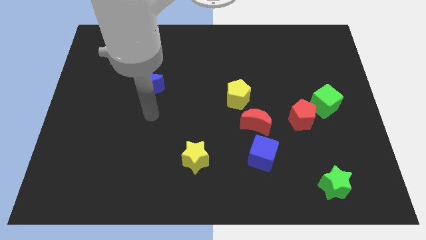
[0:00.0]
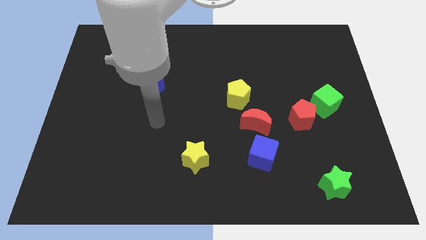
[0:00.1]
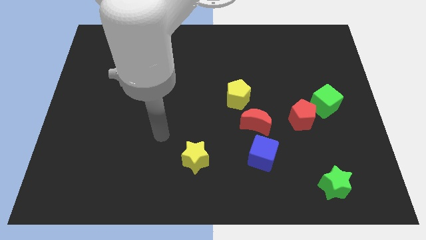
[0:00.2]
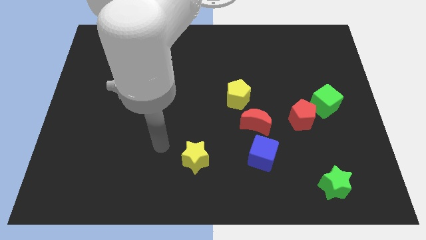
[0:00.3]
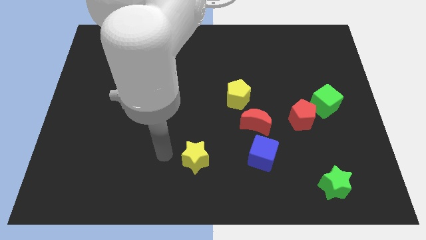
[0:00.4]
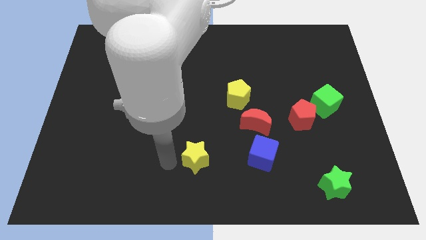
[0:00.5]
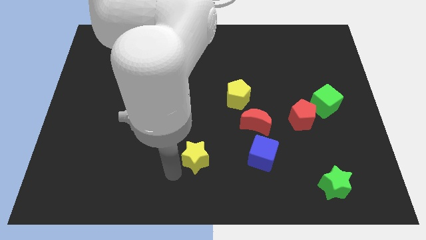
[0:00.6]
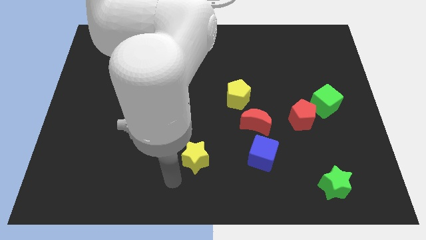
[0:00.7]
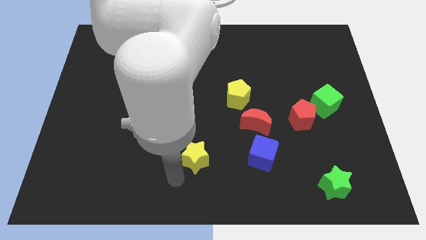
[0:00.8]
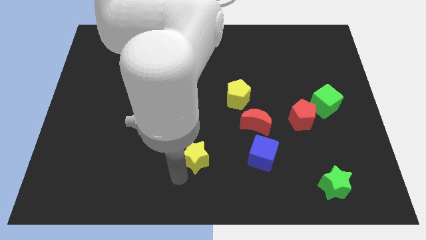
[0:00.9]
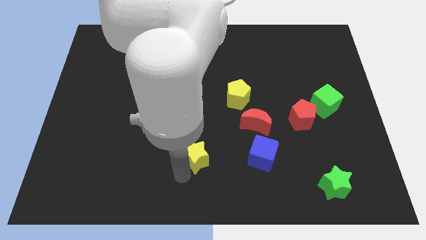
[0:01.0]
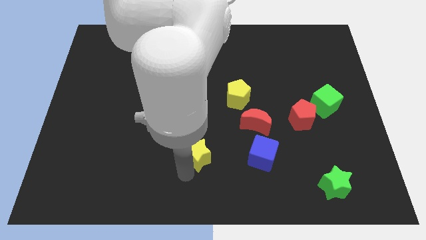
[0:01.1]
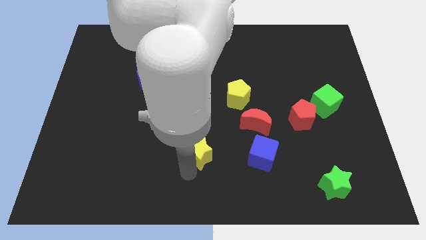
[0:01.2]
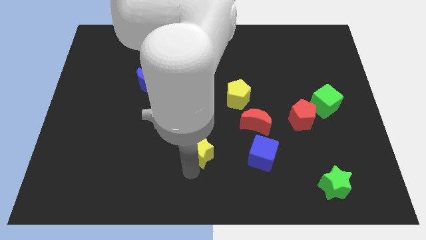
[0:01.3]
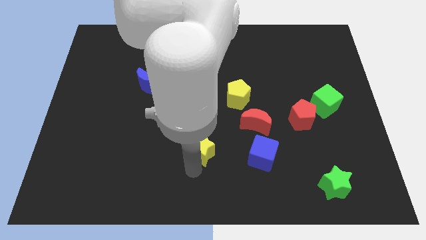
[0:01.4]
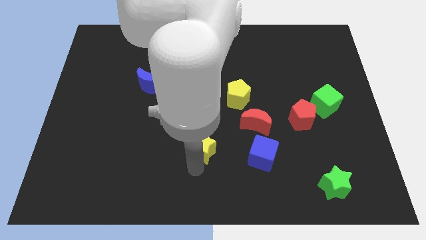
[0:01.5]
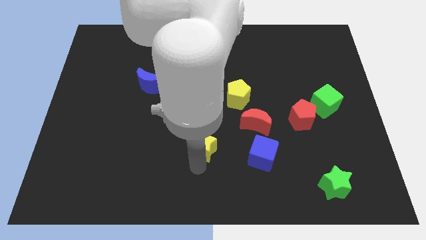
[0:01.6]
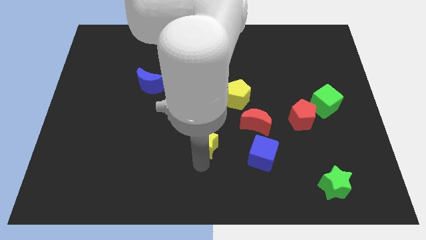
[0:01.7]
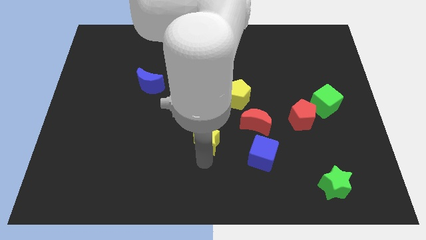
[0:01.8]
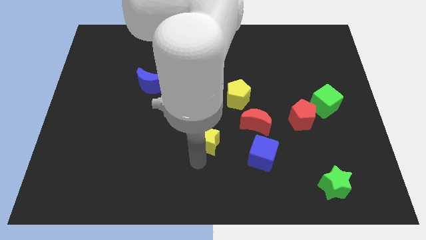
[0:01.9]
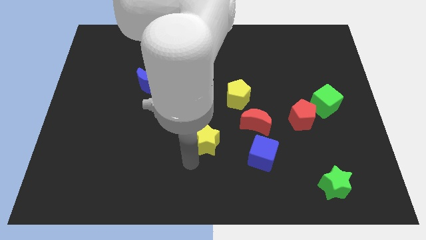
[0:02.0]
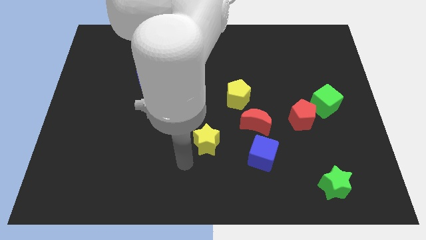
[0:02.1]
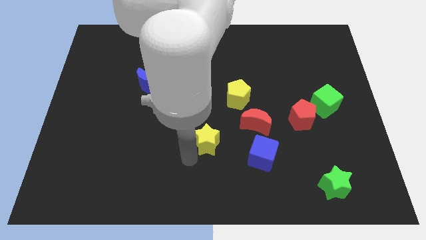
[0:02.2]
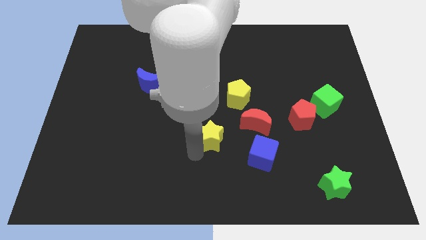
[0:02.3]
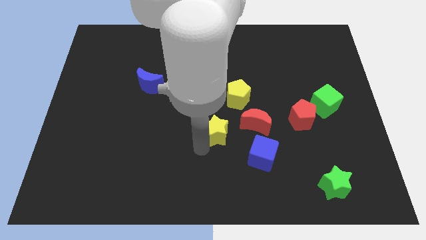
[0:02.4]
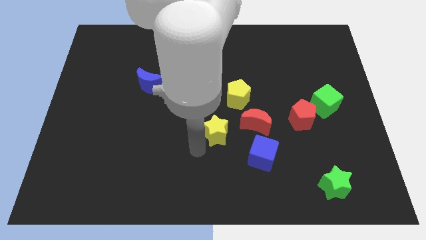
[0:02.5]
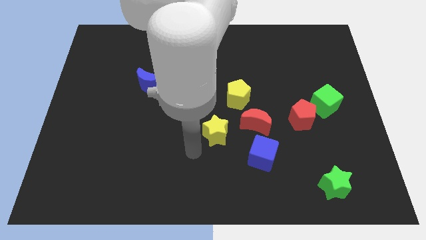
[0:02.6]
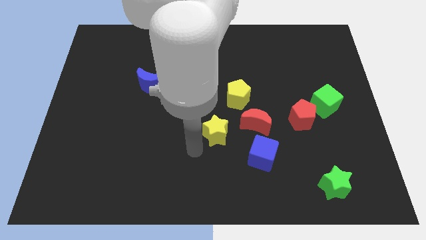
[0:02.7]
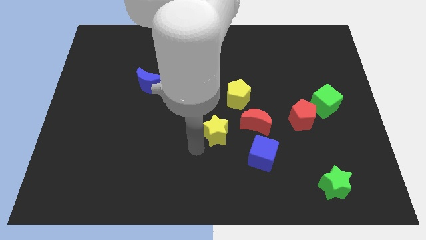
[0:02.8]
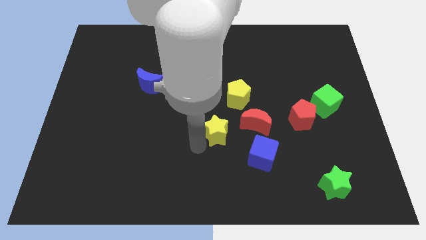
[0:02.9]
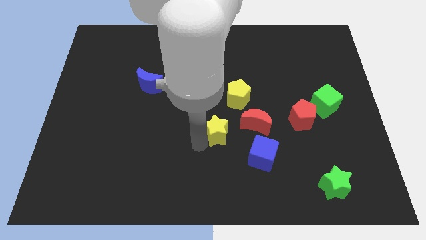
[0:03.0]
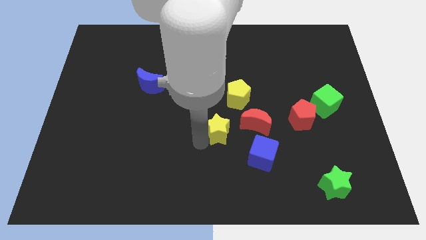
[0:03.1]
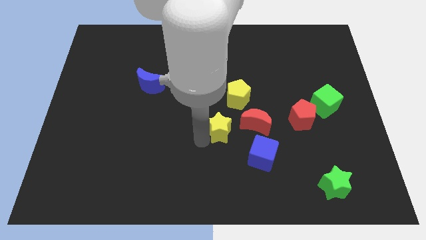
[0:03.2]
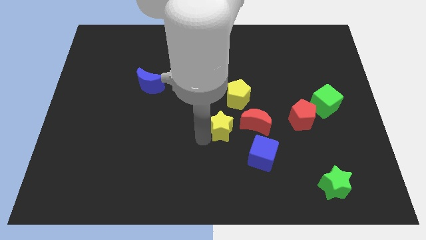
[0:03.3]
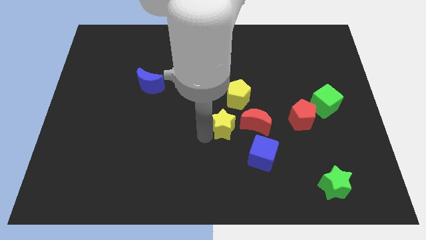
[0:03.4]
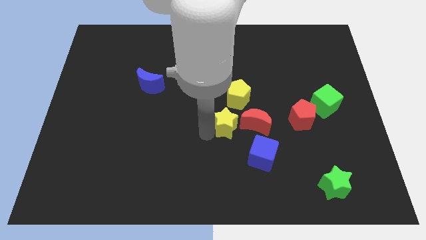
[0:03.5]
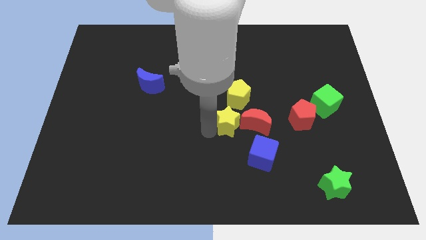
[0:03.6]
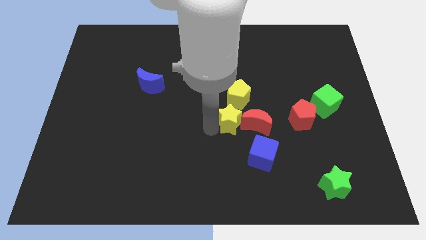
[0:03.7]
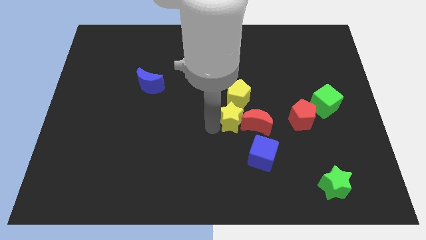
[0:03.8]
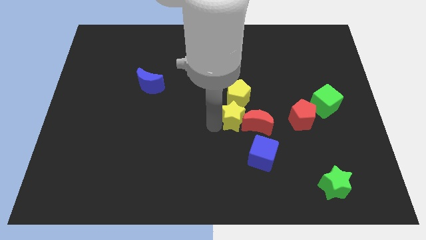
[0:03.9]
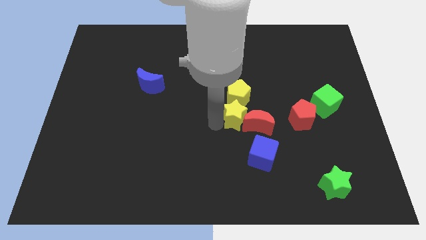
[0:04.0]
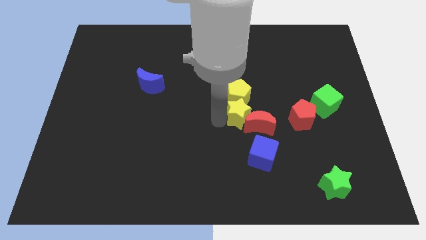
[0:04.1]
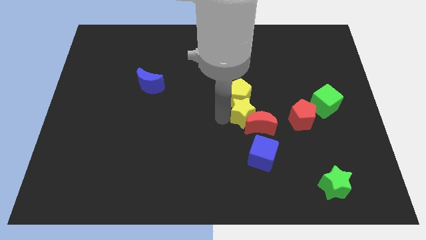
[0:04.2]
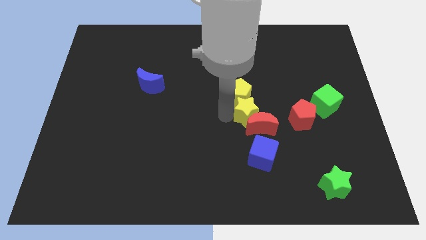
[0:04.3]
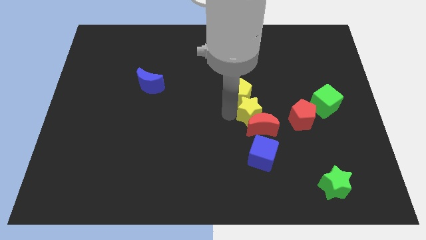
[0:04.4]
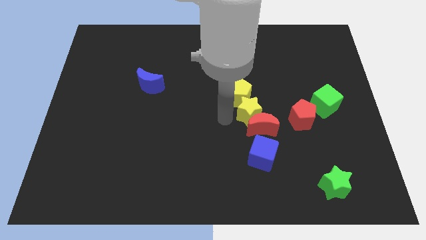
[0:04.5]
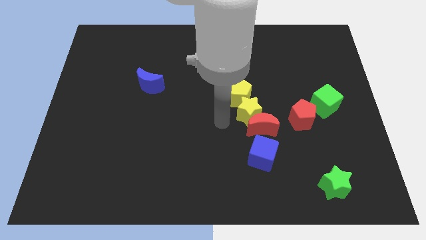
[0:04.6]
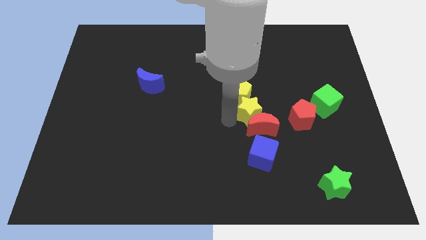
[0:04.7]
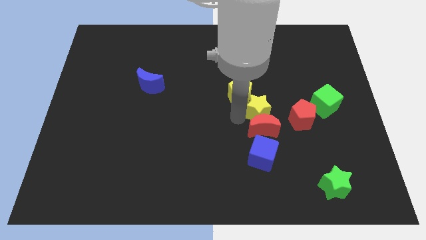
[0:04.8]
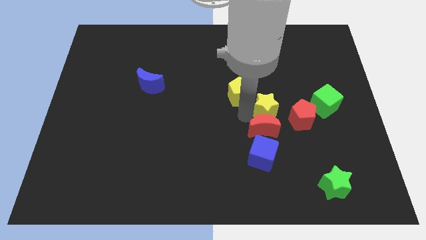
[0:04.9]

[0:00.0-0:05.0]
put the yellow star left of the green cube

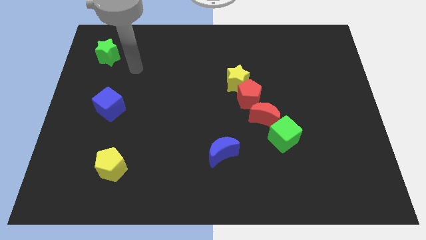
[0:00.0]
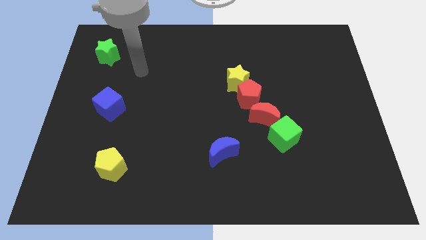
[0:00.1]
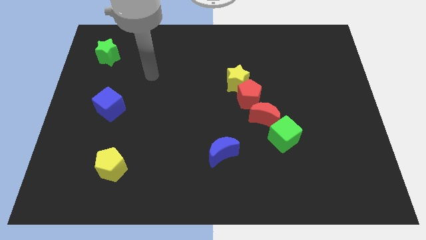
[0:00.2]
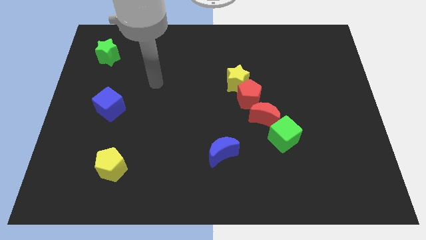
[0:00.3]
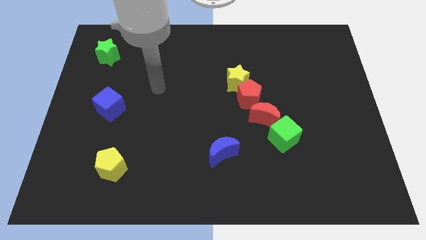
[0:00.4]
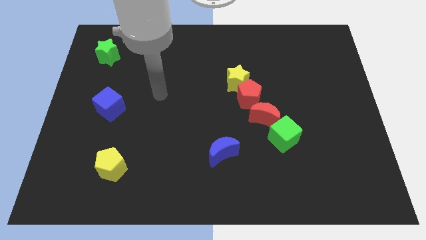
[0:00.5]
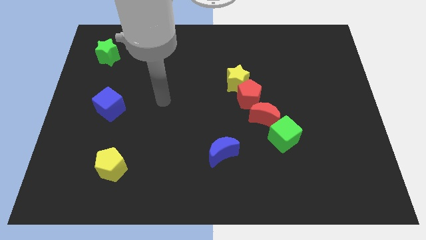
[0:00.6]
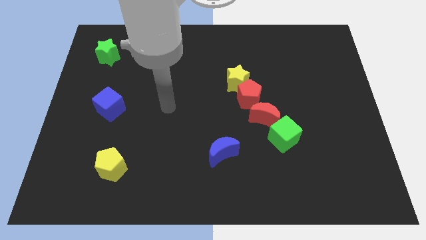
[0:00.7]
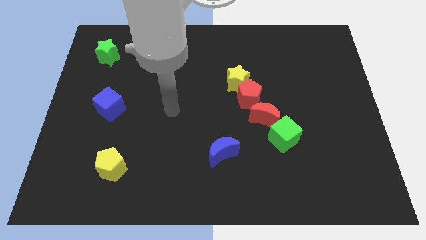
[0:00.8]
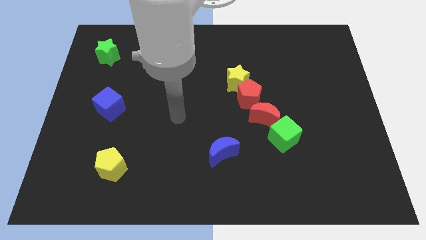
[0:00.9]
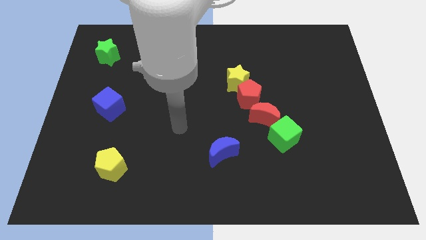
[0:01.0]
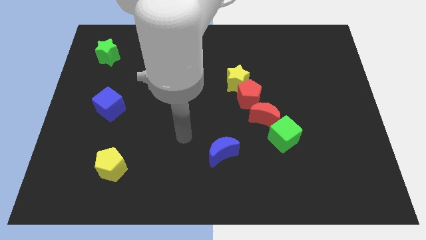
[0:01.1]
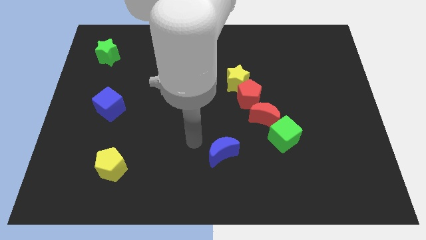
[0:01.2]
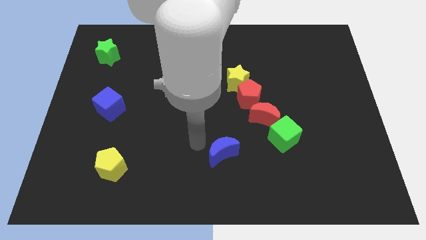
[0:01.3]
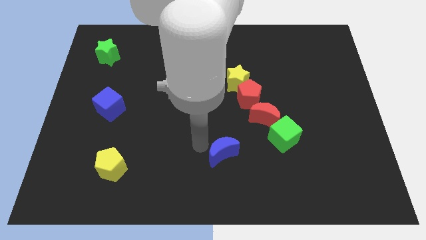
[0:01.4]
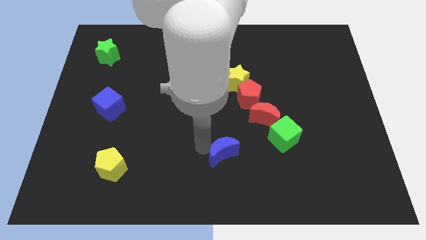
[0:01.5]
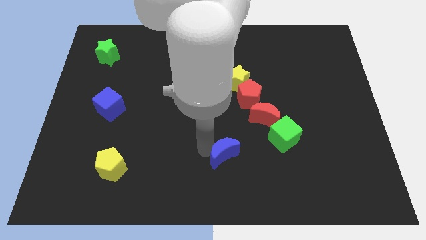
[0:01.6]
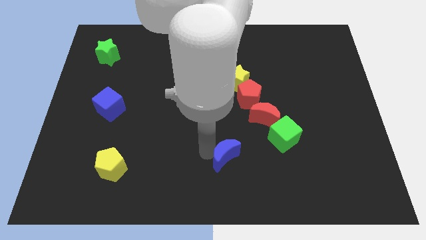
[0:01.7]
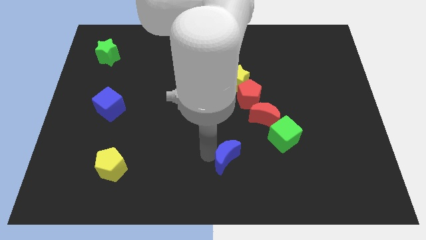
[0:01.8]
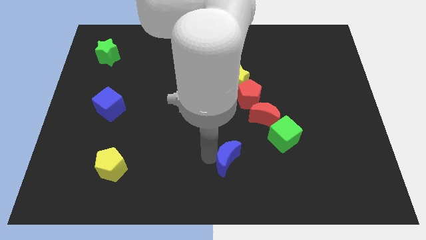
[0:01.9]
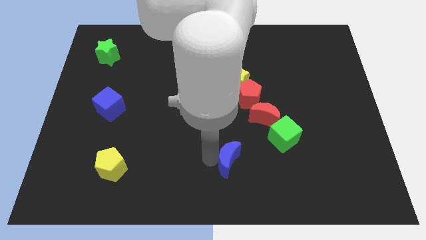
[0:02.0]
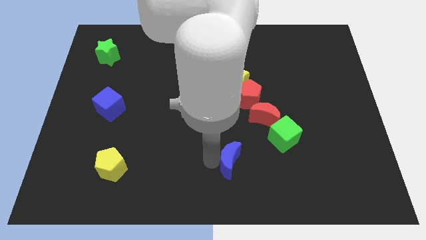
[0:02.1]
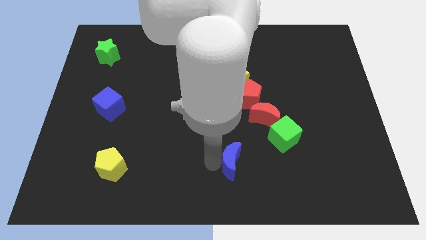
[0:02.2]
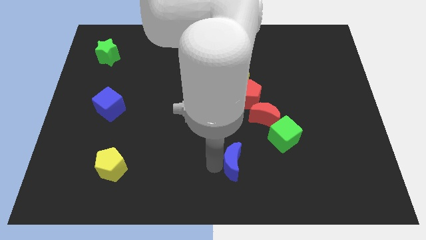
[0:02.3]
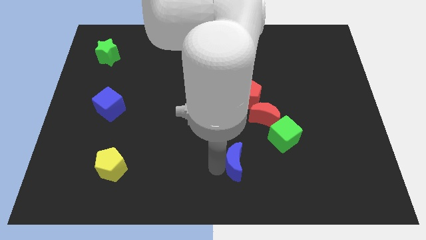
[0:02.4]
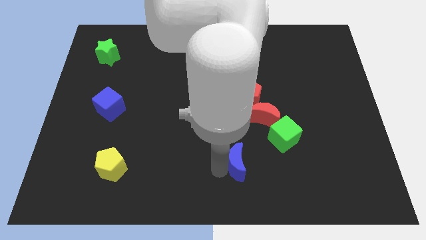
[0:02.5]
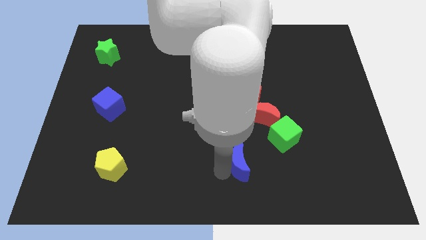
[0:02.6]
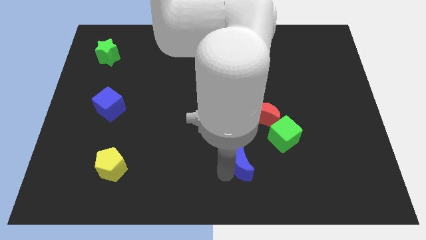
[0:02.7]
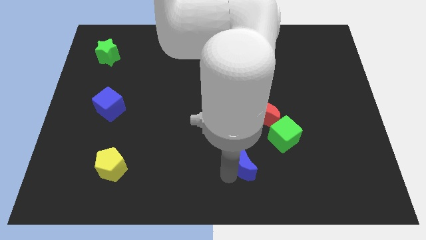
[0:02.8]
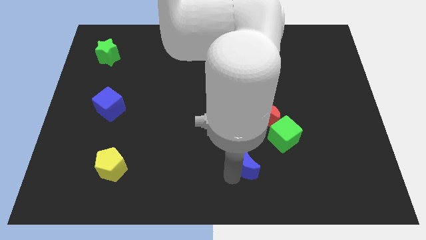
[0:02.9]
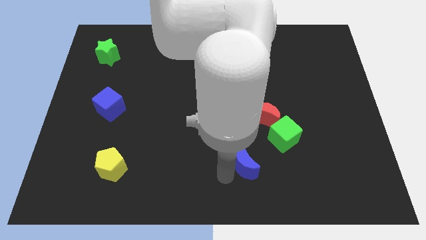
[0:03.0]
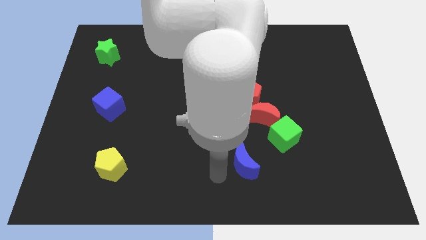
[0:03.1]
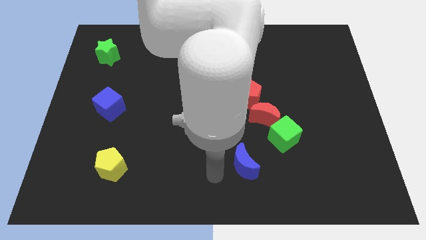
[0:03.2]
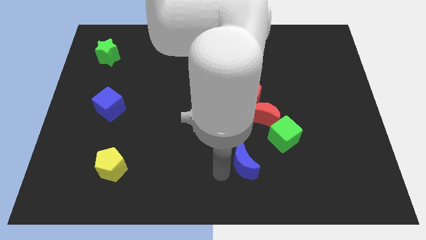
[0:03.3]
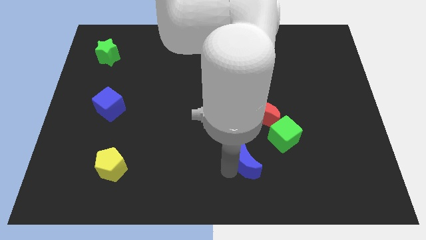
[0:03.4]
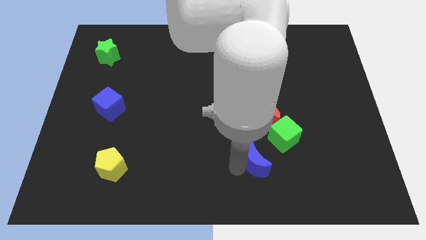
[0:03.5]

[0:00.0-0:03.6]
push the blue moon below the red moon
